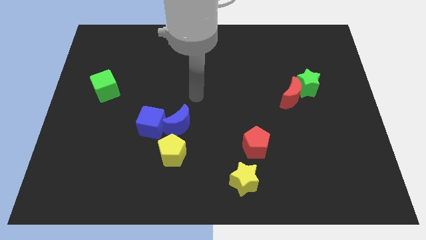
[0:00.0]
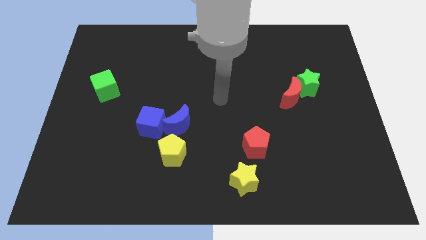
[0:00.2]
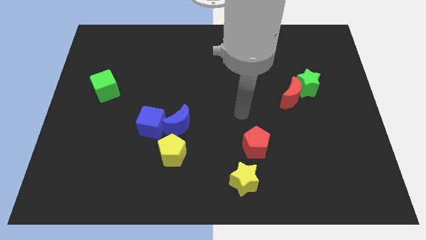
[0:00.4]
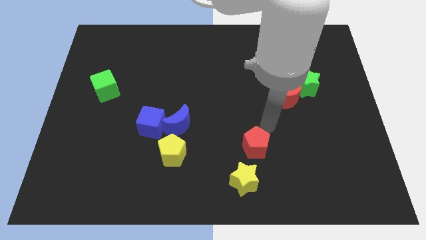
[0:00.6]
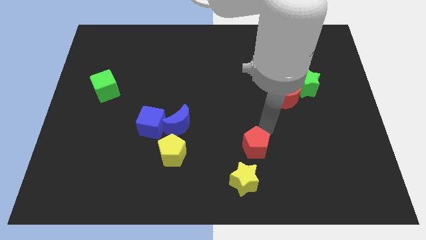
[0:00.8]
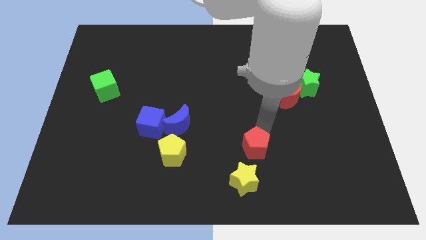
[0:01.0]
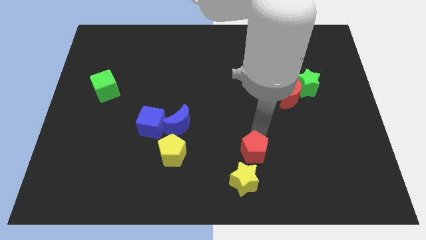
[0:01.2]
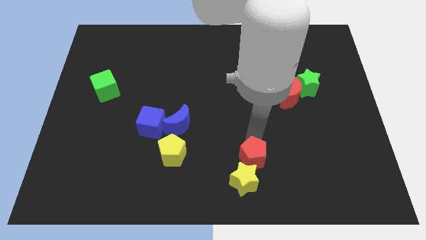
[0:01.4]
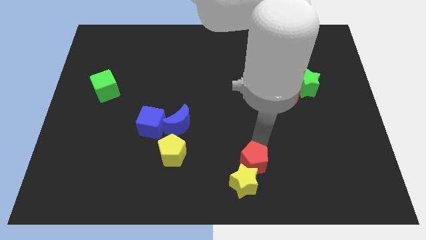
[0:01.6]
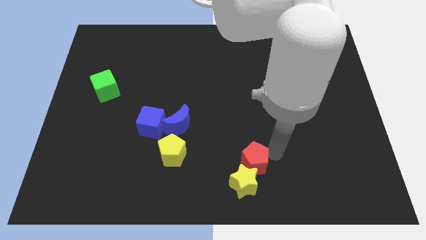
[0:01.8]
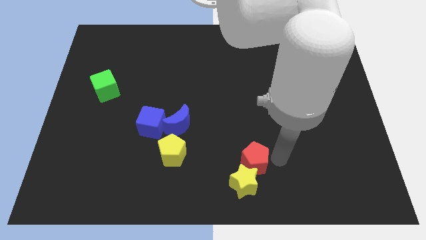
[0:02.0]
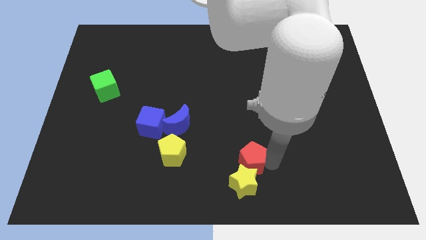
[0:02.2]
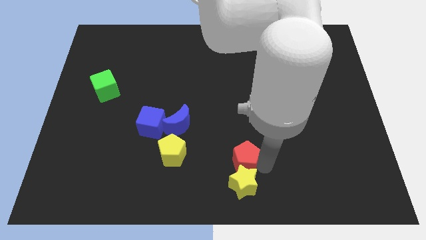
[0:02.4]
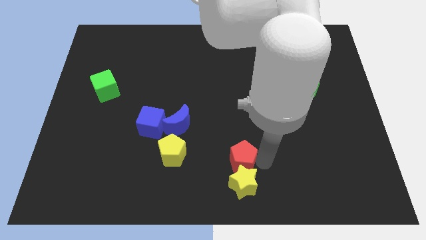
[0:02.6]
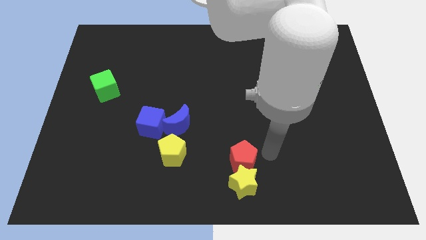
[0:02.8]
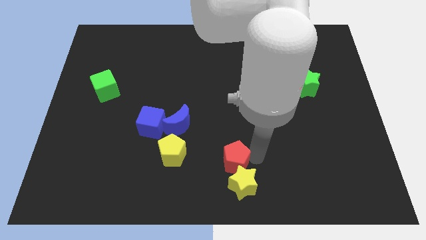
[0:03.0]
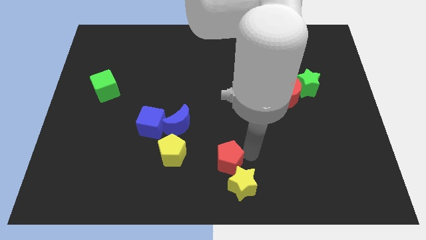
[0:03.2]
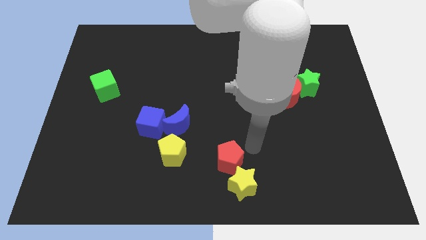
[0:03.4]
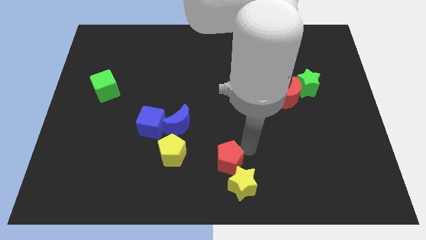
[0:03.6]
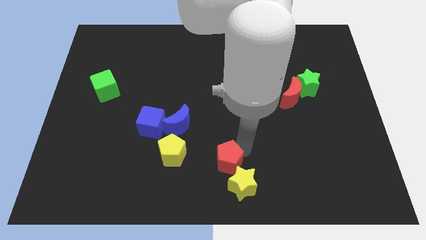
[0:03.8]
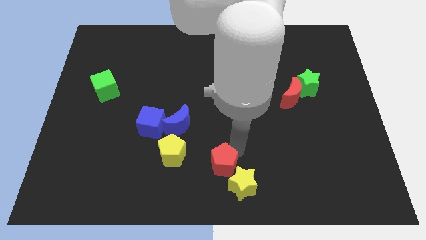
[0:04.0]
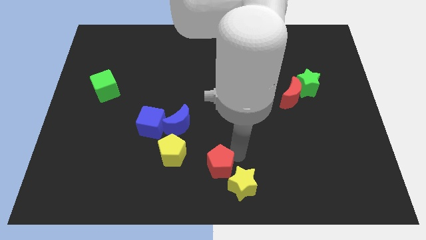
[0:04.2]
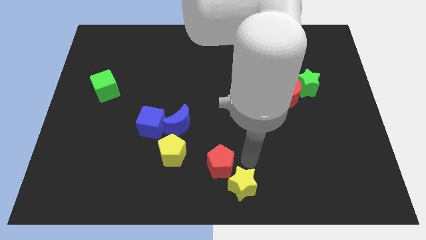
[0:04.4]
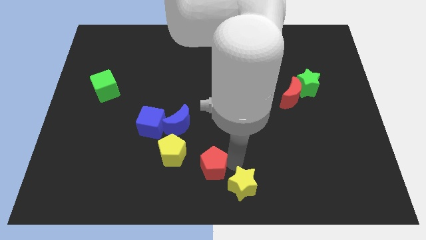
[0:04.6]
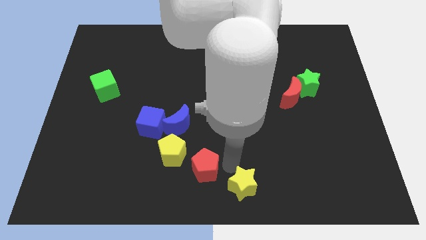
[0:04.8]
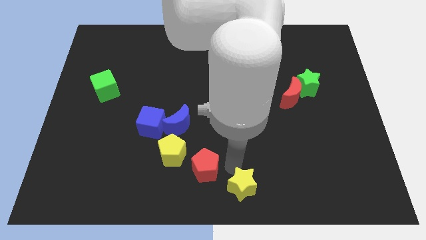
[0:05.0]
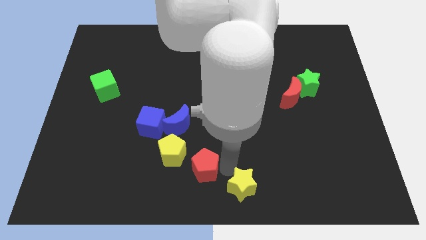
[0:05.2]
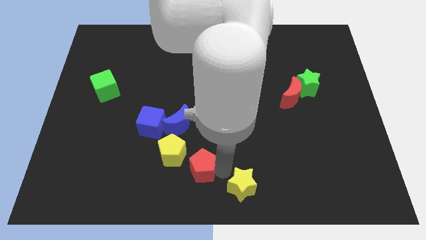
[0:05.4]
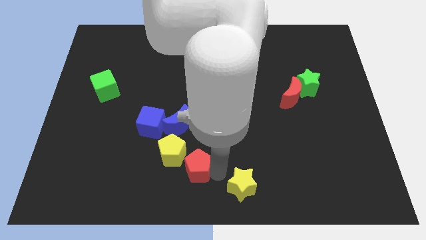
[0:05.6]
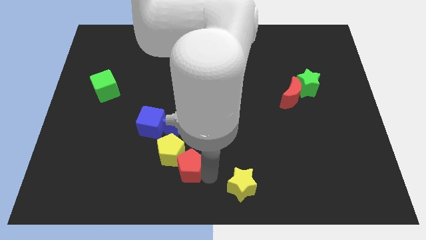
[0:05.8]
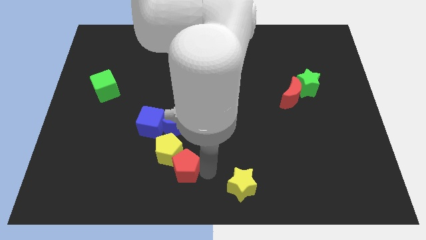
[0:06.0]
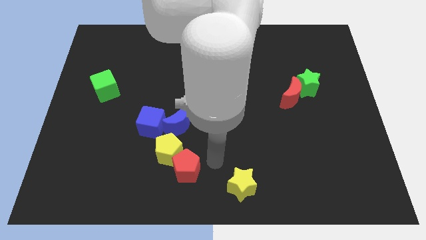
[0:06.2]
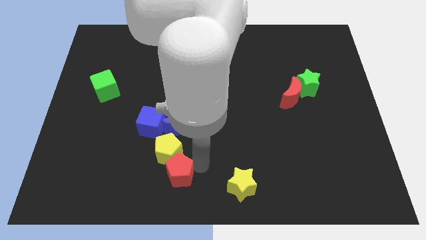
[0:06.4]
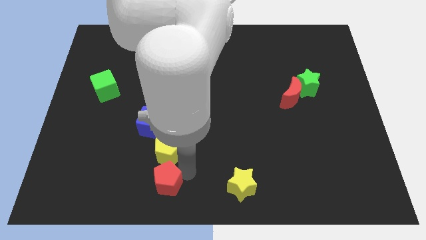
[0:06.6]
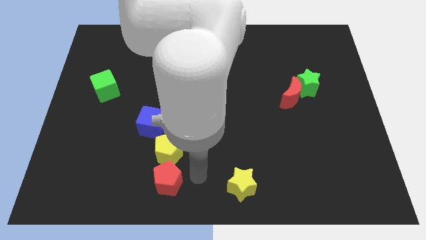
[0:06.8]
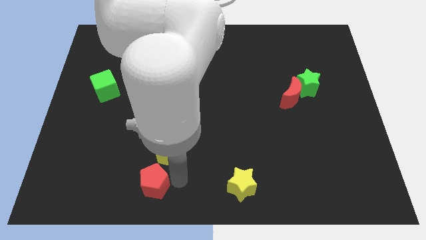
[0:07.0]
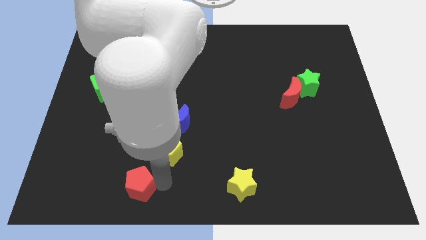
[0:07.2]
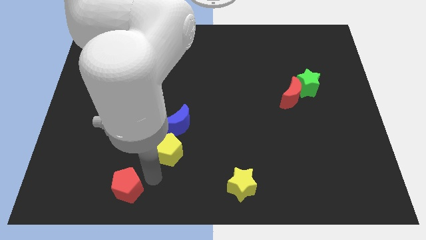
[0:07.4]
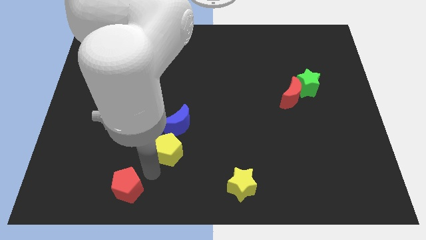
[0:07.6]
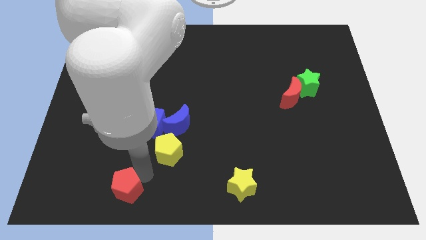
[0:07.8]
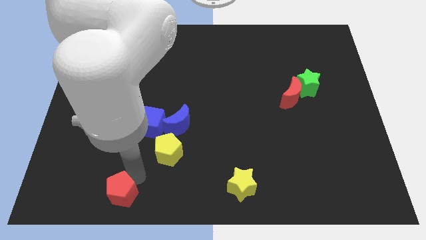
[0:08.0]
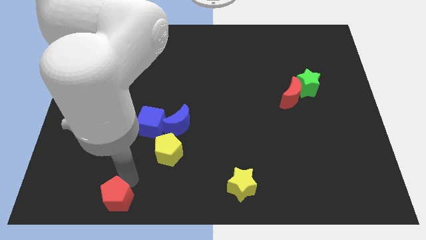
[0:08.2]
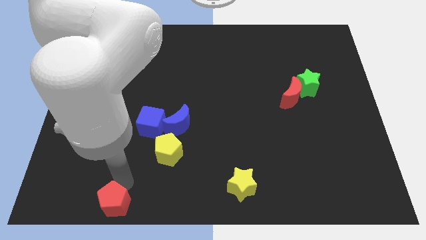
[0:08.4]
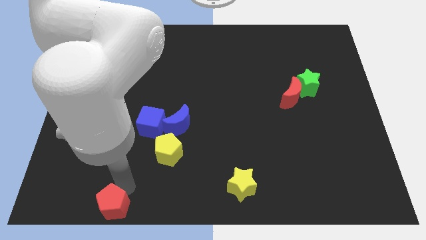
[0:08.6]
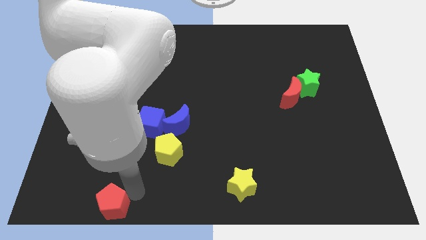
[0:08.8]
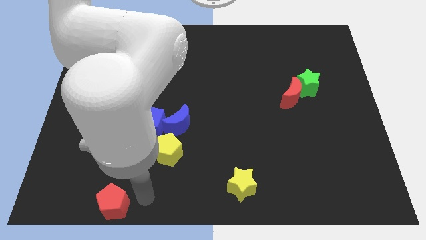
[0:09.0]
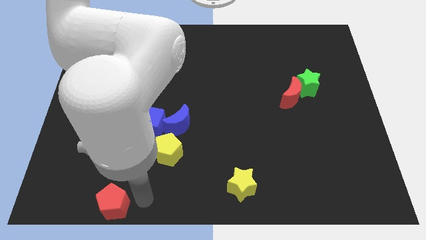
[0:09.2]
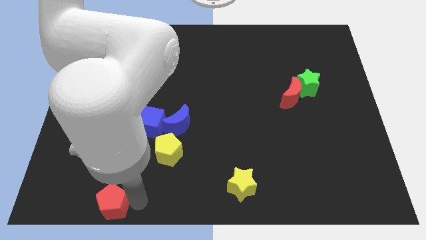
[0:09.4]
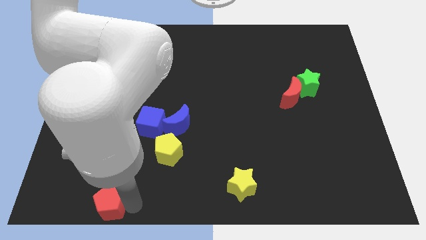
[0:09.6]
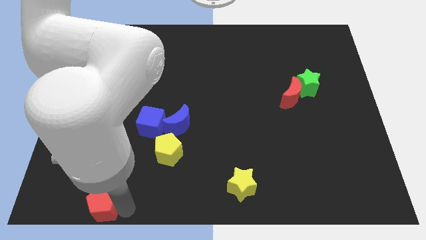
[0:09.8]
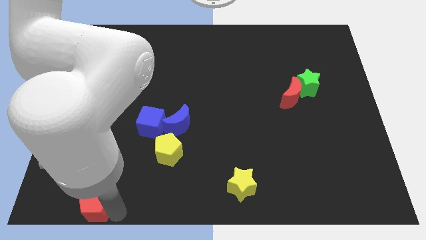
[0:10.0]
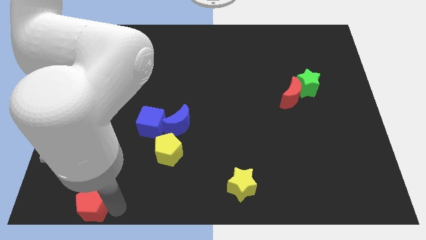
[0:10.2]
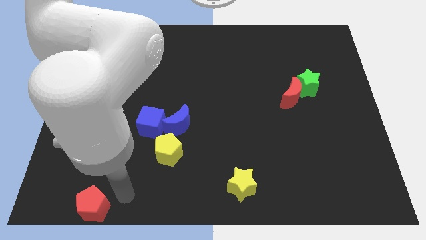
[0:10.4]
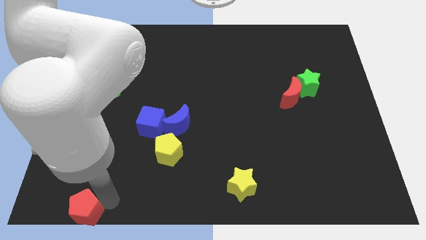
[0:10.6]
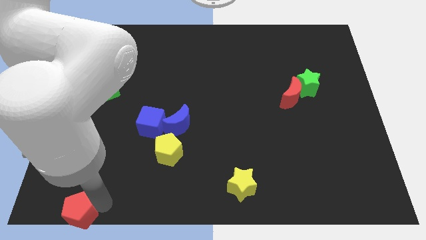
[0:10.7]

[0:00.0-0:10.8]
put the red pentagon to the bottom left

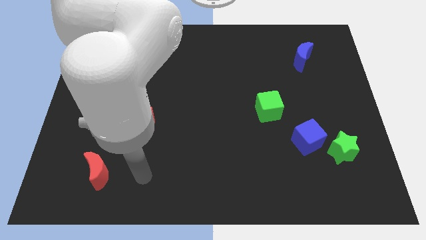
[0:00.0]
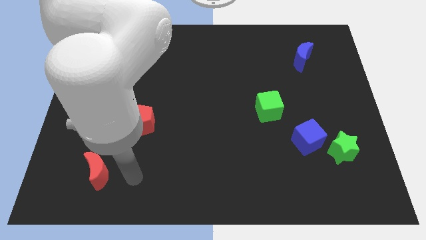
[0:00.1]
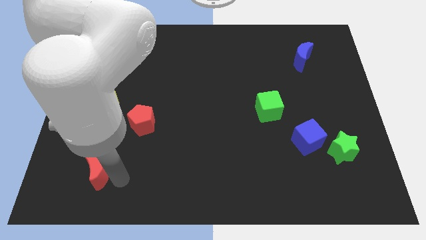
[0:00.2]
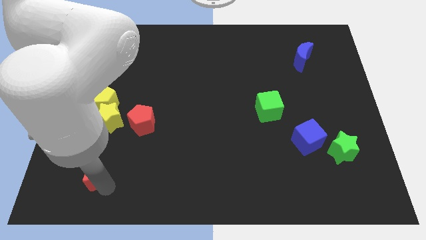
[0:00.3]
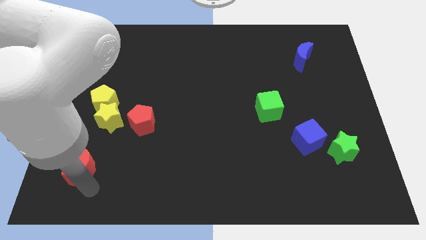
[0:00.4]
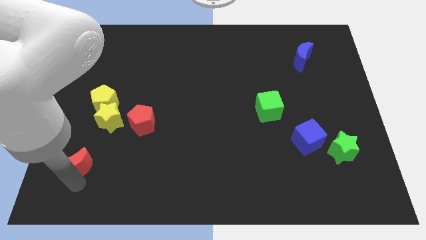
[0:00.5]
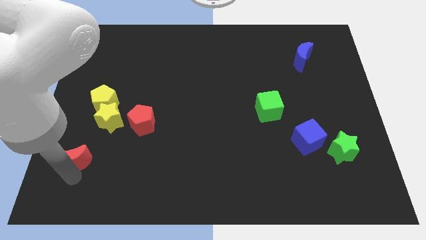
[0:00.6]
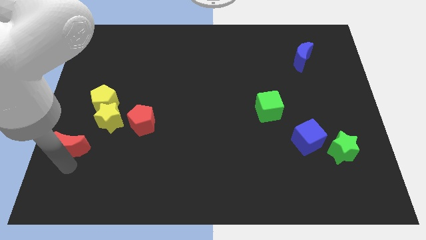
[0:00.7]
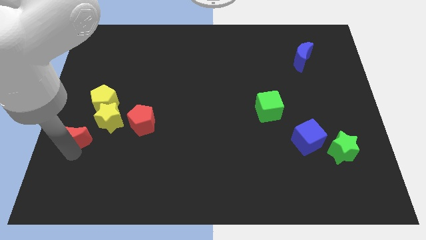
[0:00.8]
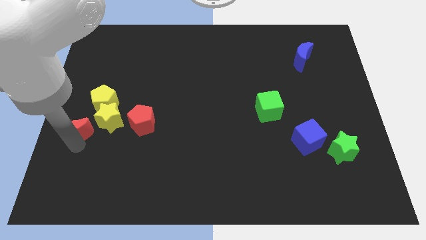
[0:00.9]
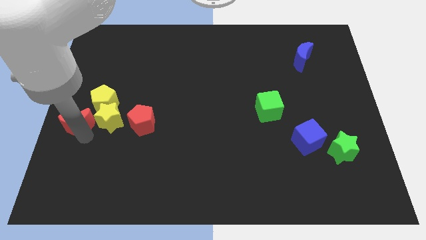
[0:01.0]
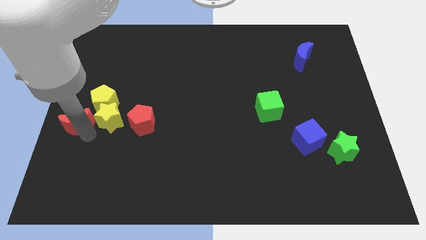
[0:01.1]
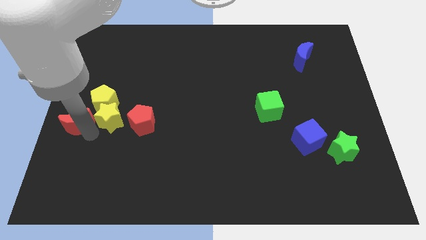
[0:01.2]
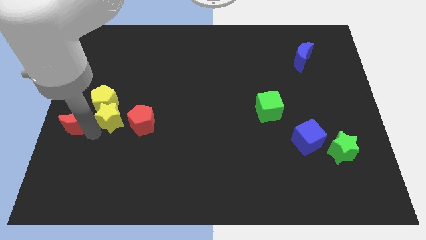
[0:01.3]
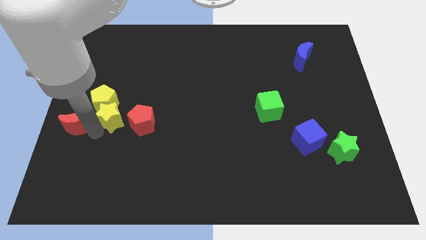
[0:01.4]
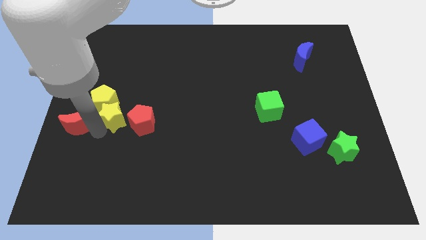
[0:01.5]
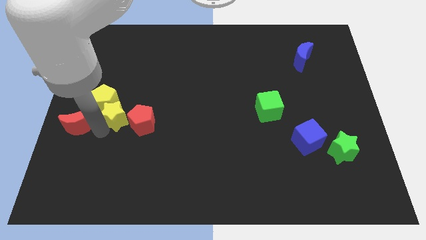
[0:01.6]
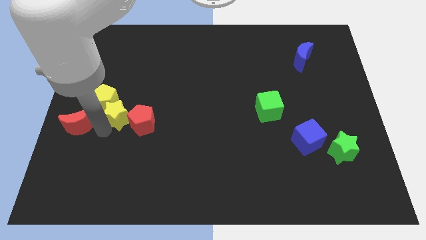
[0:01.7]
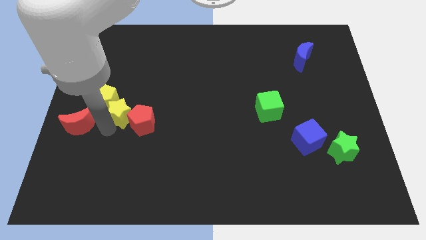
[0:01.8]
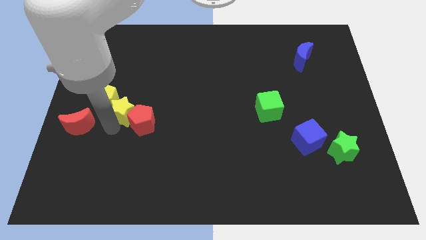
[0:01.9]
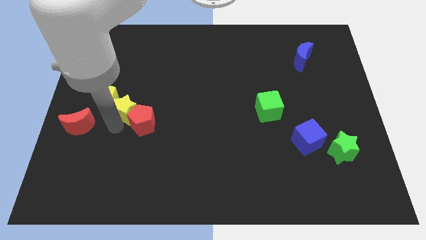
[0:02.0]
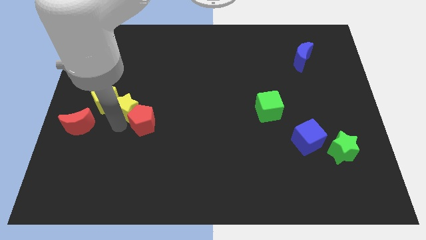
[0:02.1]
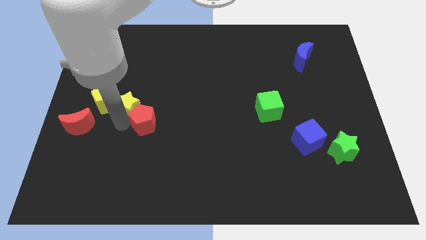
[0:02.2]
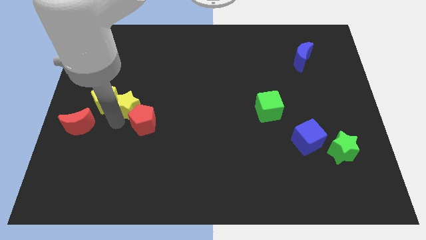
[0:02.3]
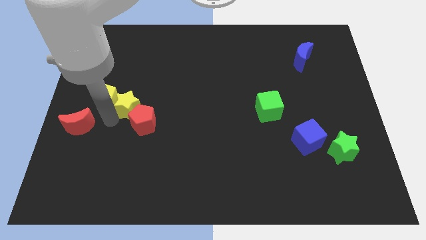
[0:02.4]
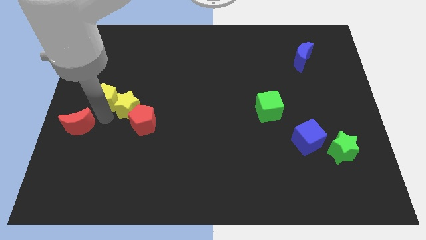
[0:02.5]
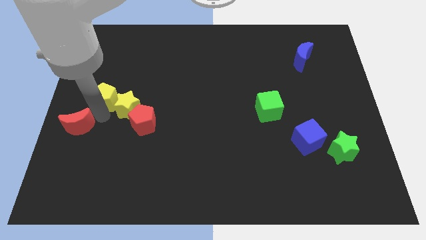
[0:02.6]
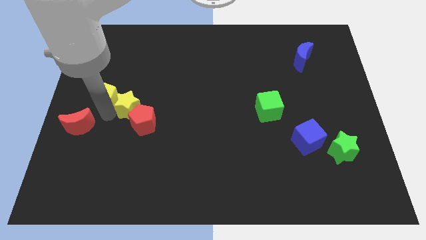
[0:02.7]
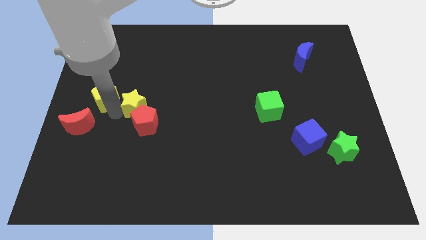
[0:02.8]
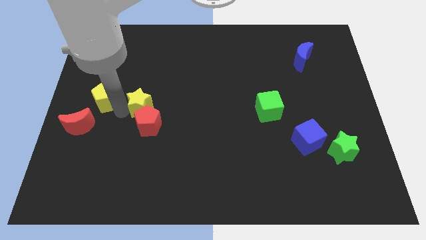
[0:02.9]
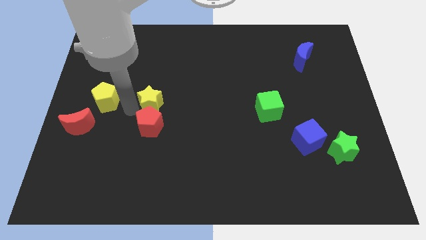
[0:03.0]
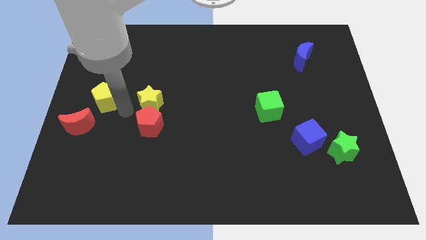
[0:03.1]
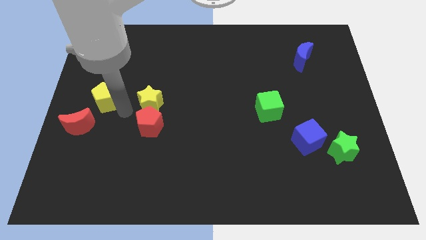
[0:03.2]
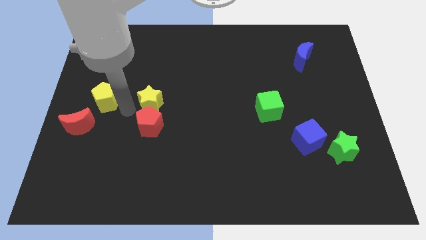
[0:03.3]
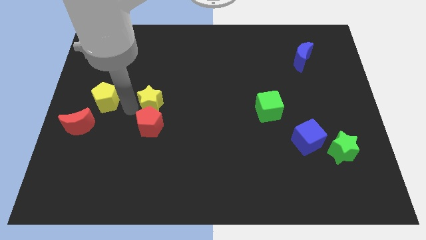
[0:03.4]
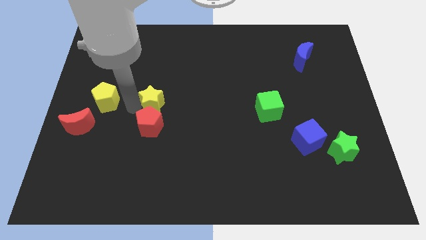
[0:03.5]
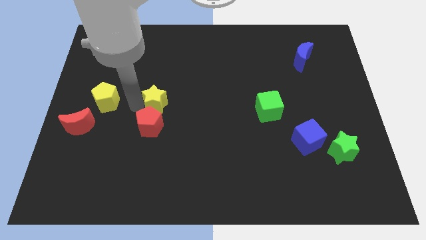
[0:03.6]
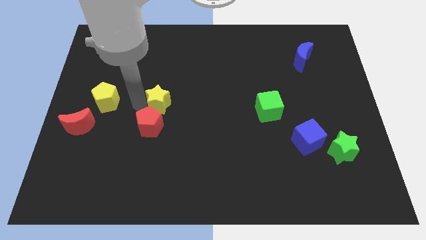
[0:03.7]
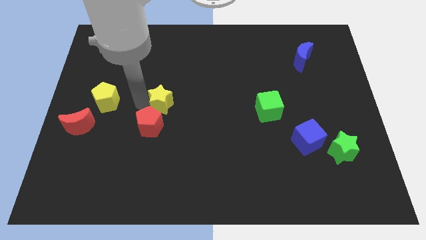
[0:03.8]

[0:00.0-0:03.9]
put the yellow star to the middle of the board
